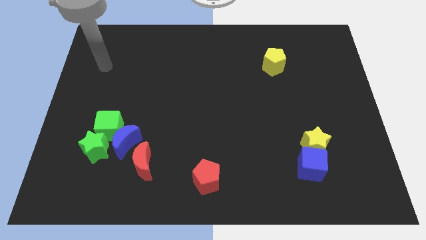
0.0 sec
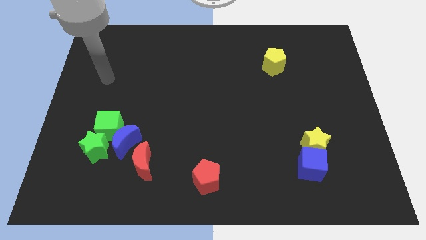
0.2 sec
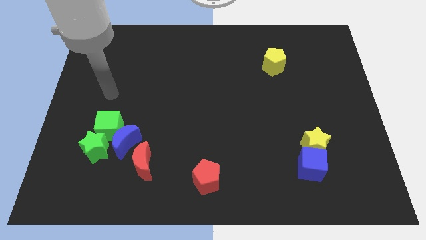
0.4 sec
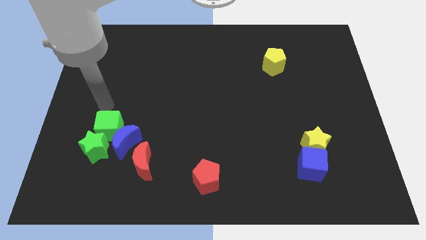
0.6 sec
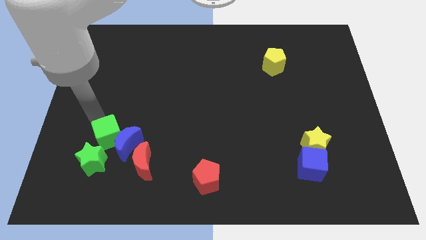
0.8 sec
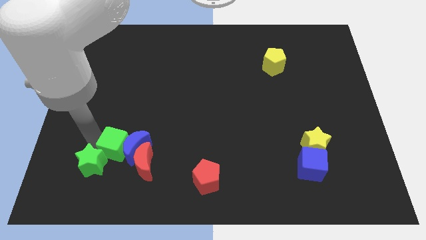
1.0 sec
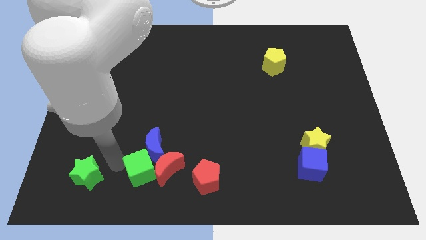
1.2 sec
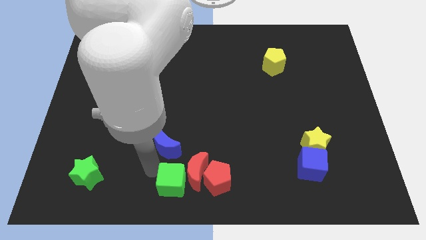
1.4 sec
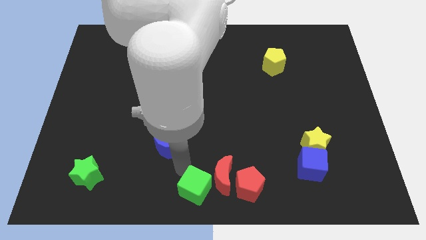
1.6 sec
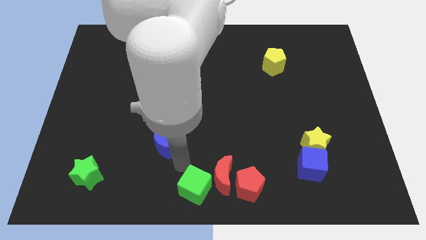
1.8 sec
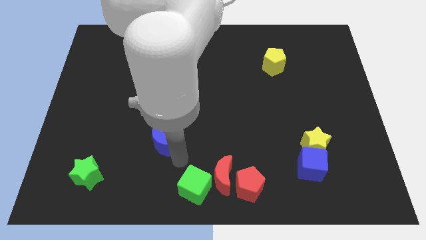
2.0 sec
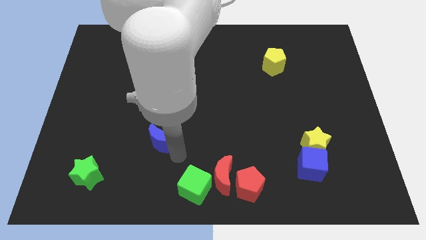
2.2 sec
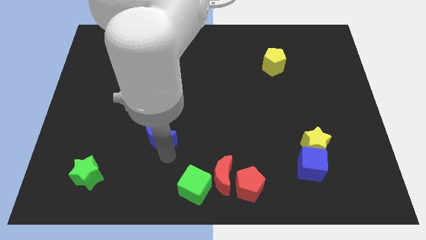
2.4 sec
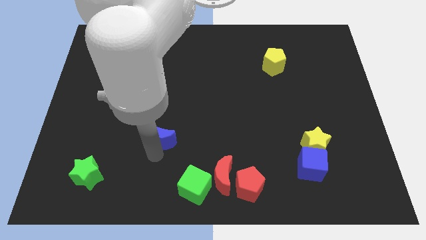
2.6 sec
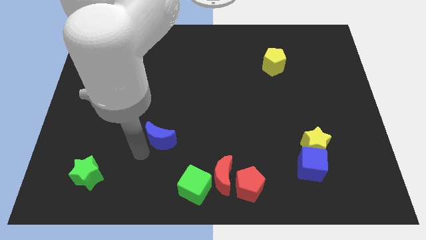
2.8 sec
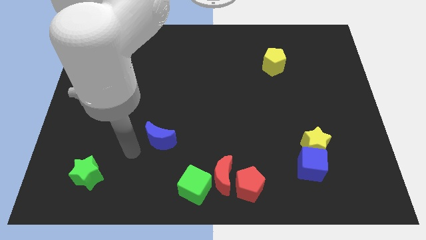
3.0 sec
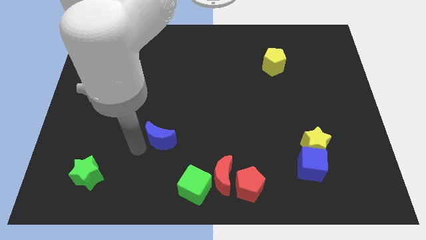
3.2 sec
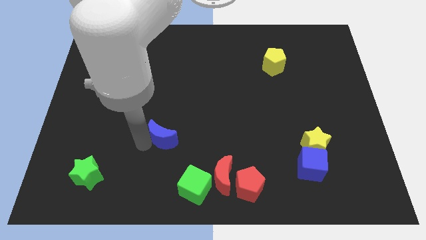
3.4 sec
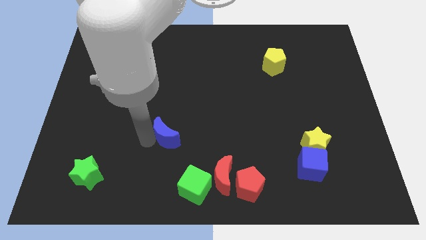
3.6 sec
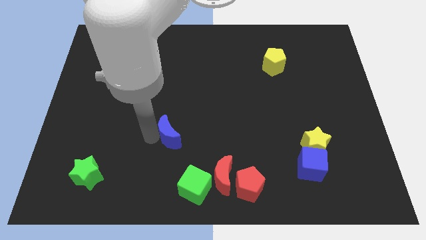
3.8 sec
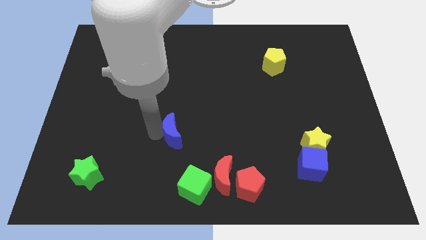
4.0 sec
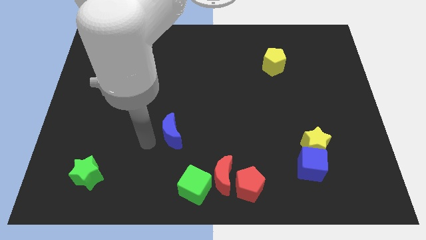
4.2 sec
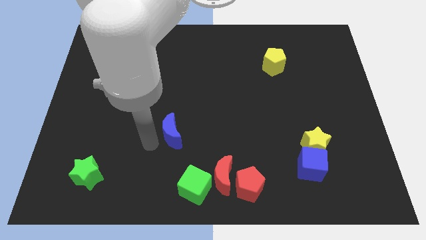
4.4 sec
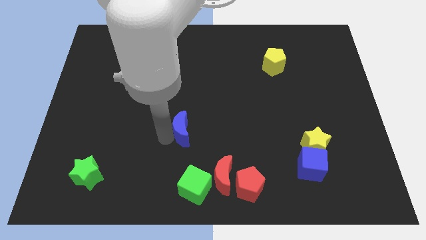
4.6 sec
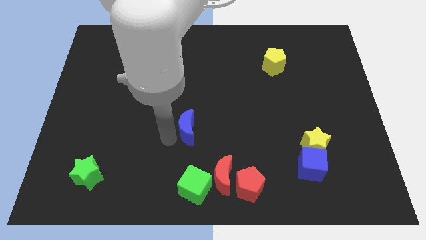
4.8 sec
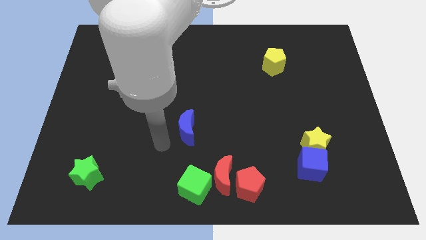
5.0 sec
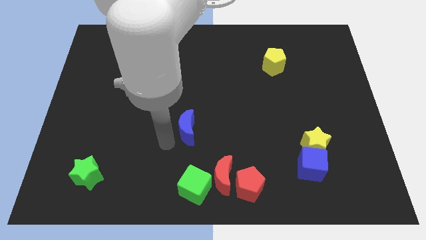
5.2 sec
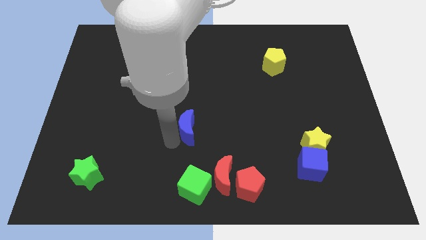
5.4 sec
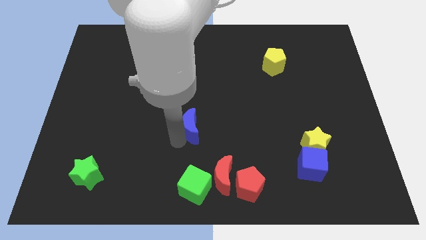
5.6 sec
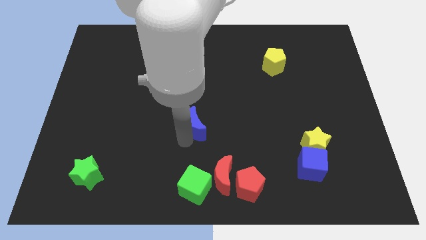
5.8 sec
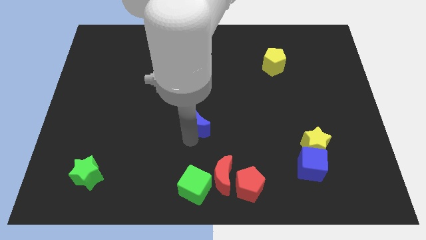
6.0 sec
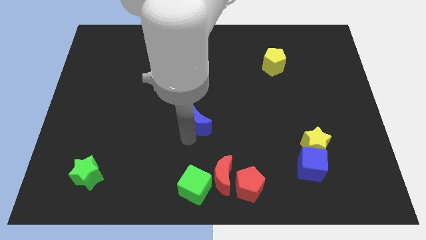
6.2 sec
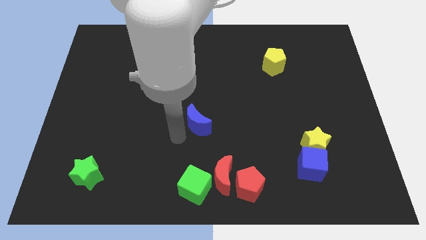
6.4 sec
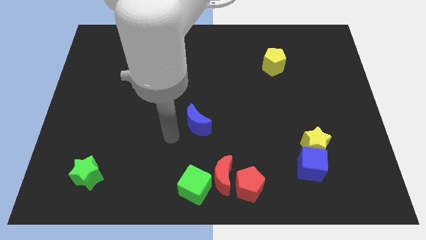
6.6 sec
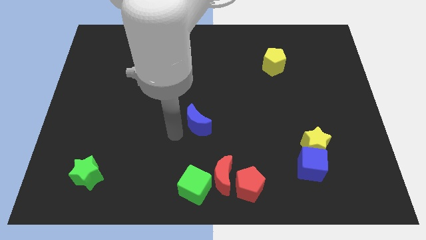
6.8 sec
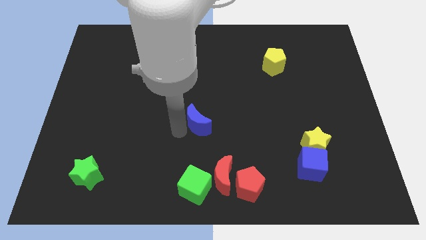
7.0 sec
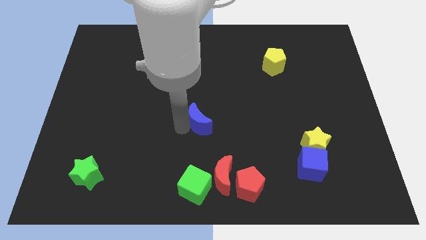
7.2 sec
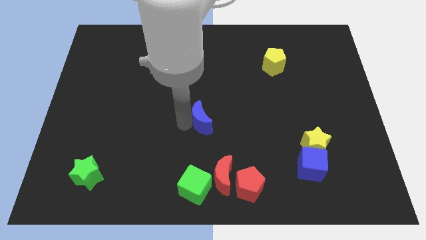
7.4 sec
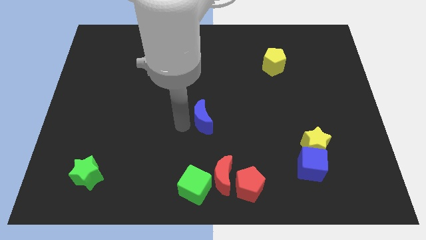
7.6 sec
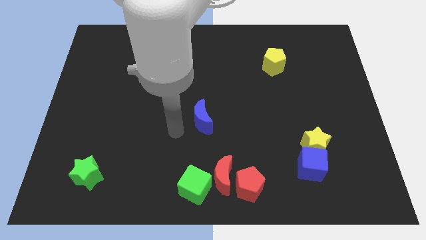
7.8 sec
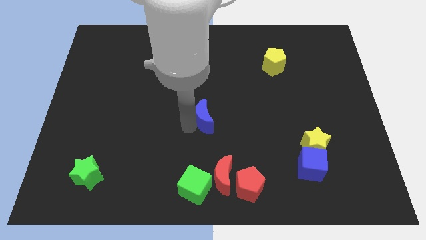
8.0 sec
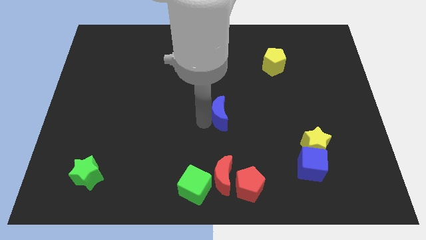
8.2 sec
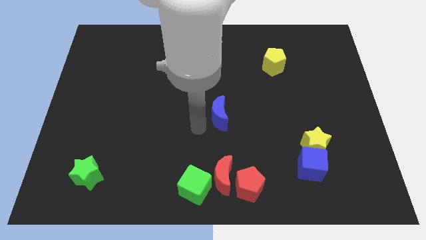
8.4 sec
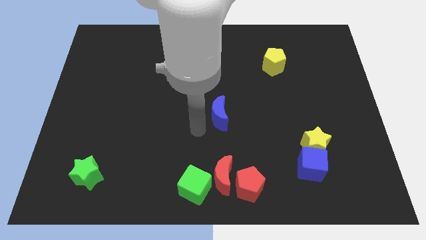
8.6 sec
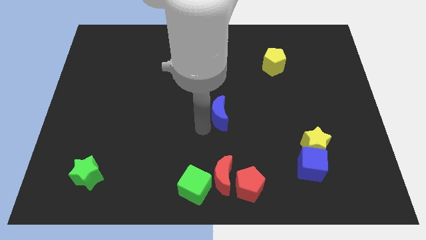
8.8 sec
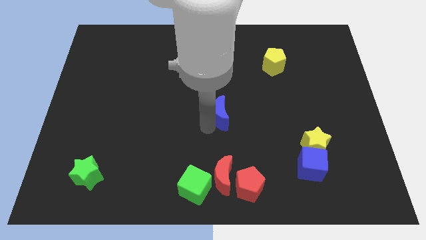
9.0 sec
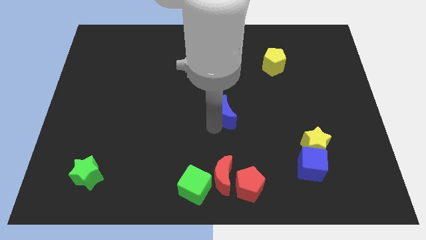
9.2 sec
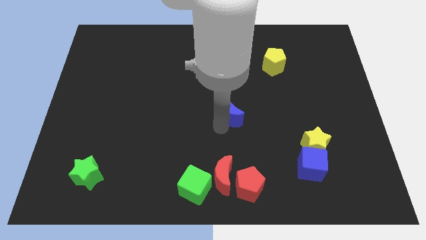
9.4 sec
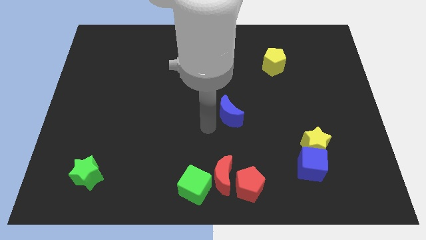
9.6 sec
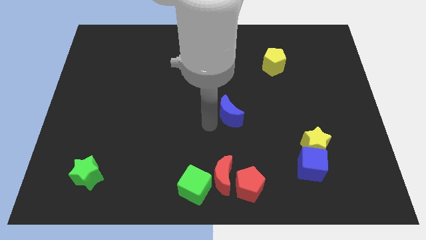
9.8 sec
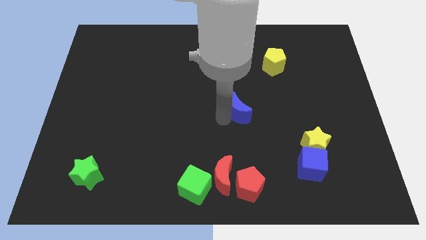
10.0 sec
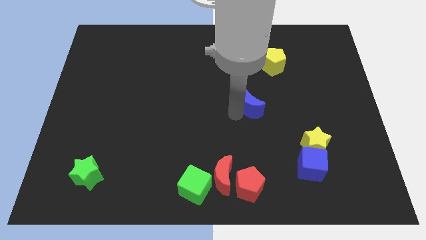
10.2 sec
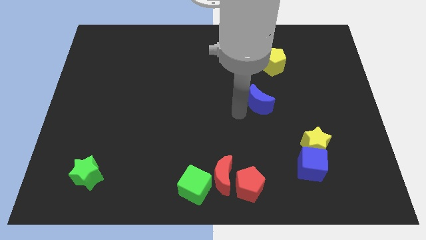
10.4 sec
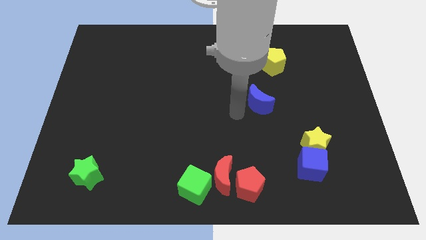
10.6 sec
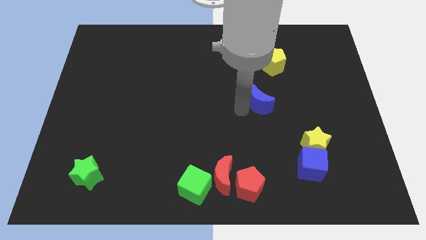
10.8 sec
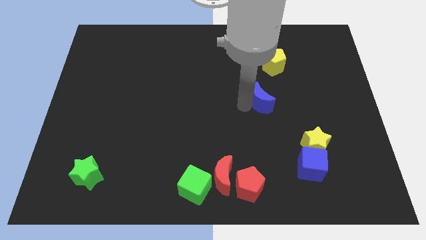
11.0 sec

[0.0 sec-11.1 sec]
move the blue moon to the bottom side of the yellow pentagon

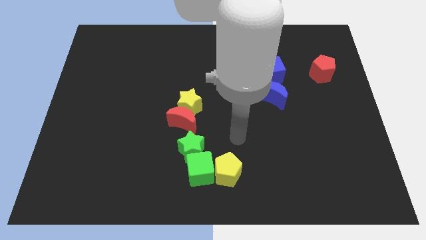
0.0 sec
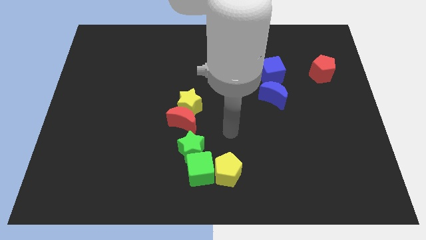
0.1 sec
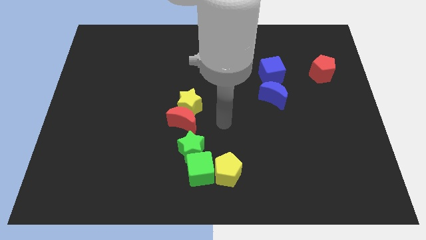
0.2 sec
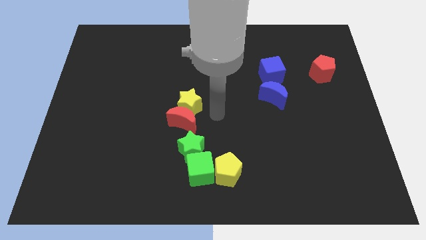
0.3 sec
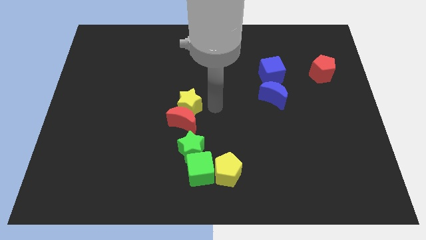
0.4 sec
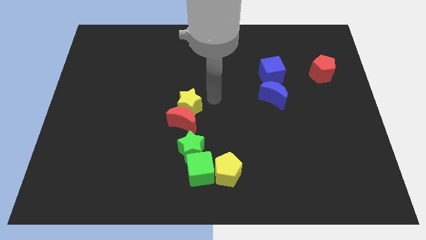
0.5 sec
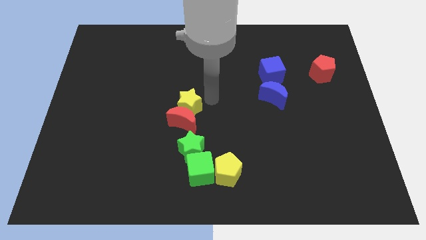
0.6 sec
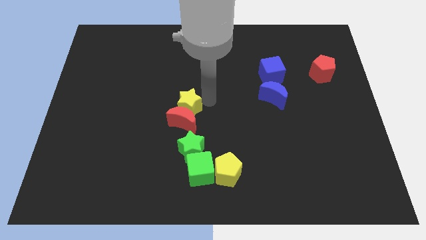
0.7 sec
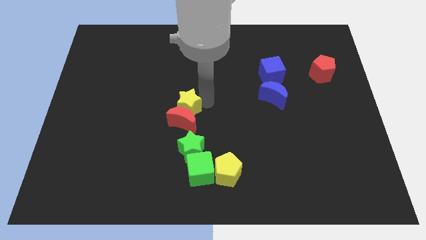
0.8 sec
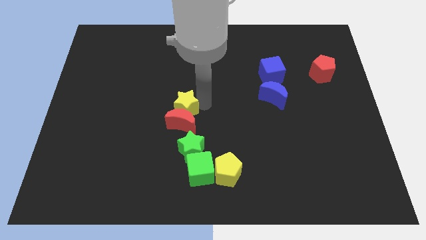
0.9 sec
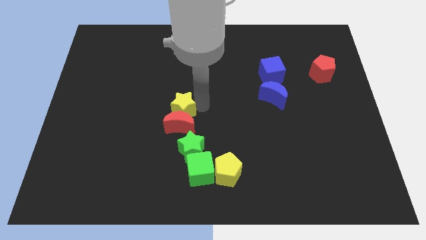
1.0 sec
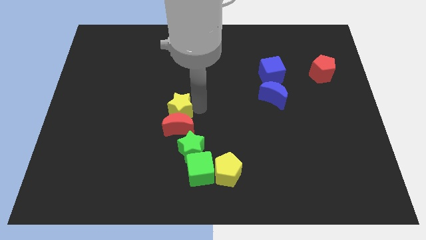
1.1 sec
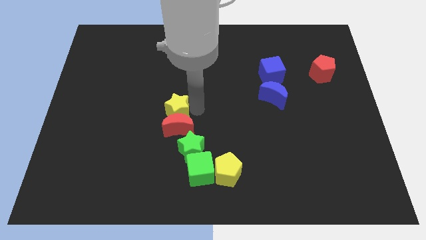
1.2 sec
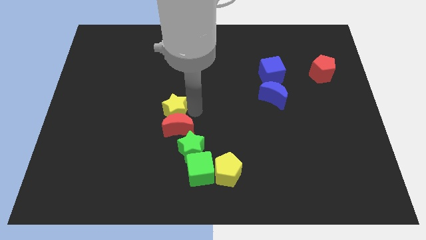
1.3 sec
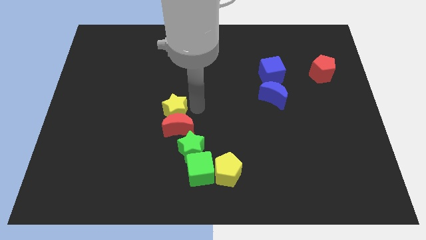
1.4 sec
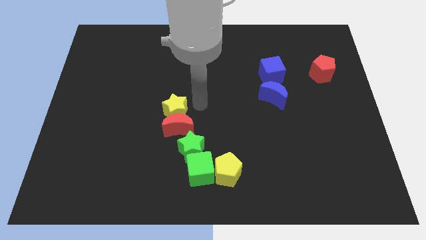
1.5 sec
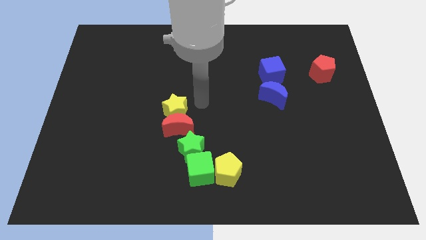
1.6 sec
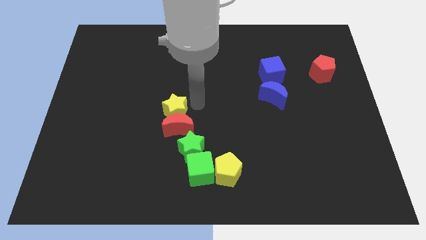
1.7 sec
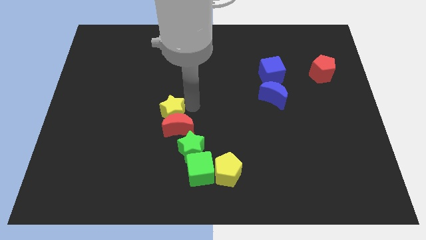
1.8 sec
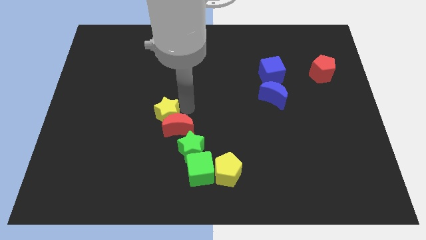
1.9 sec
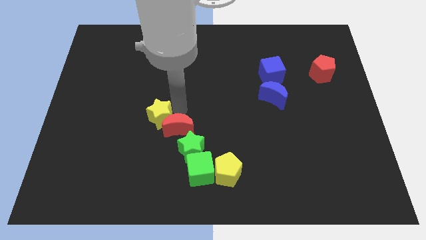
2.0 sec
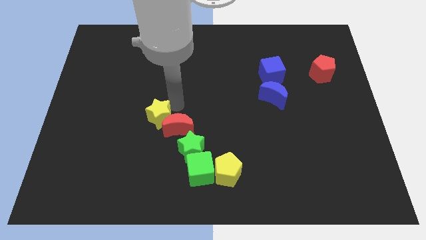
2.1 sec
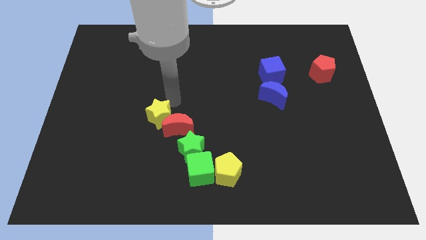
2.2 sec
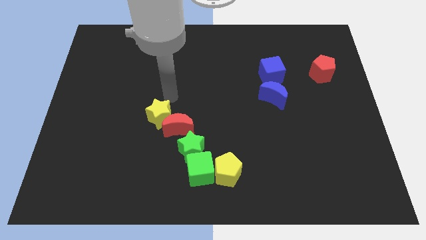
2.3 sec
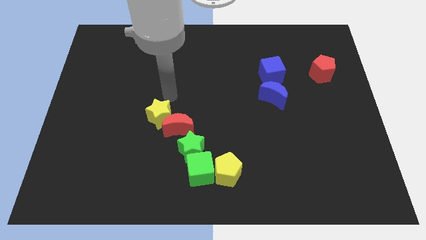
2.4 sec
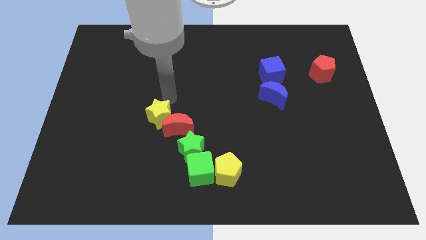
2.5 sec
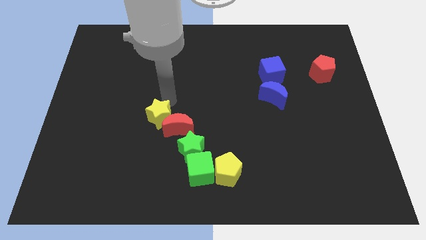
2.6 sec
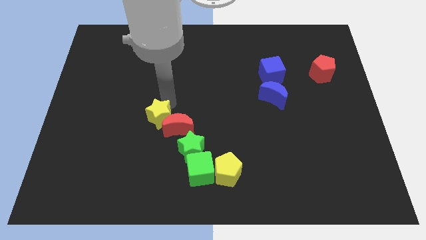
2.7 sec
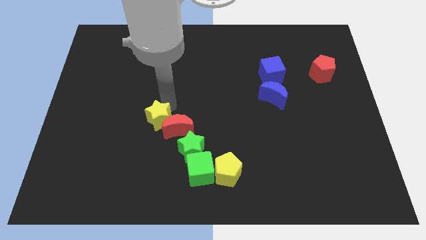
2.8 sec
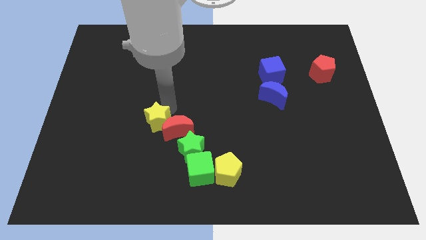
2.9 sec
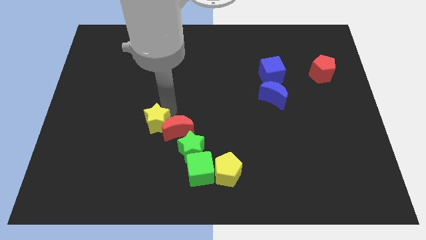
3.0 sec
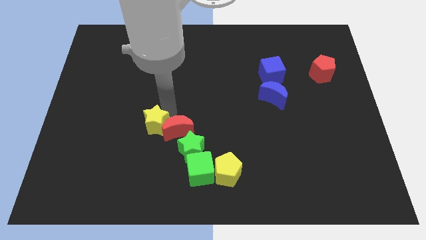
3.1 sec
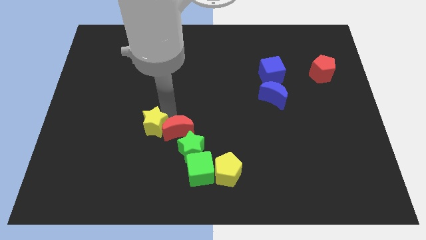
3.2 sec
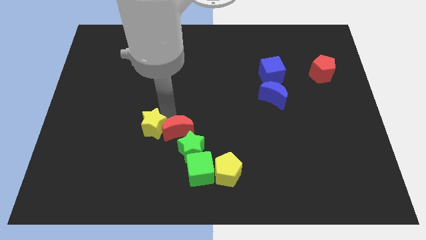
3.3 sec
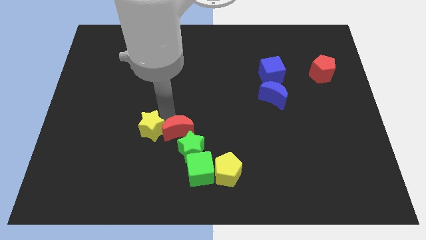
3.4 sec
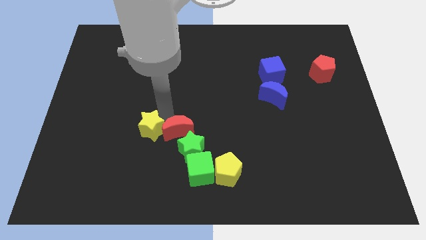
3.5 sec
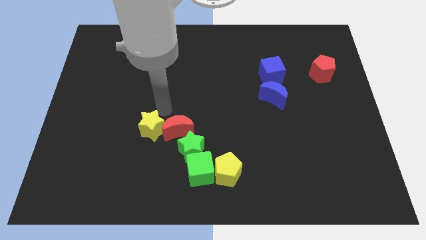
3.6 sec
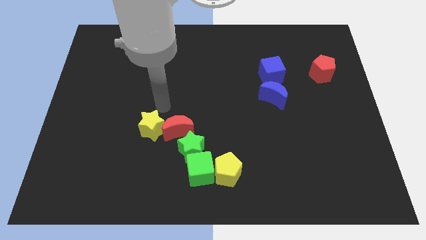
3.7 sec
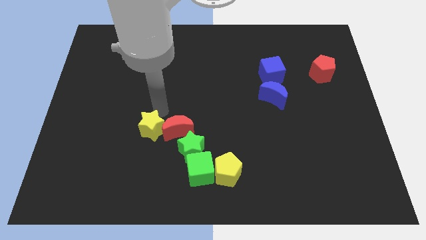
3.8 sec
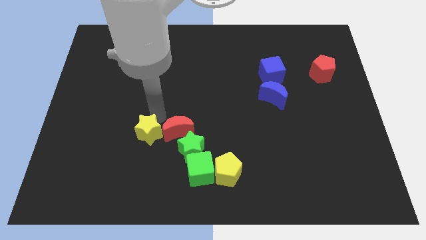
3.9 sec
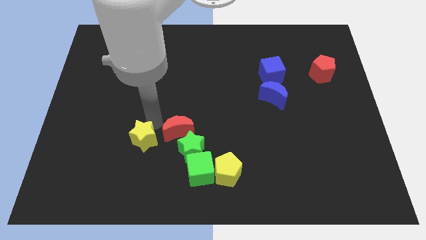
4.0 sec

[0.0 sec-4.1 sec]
put the yellow star just left of the green star
